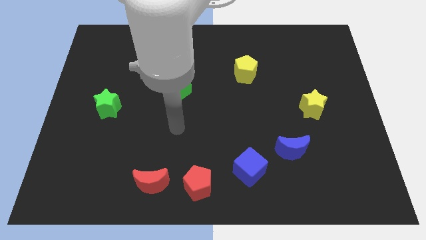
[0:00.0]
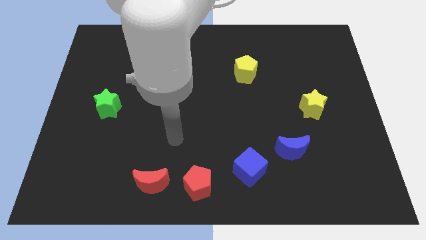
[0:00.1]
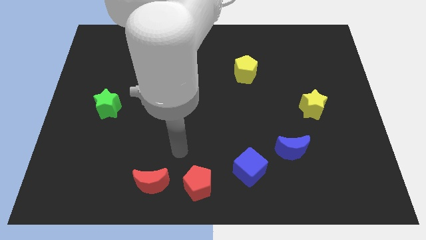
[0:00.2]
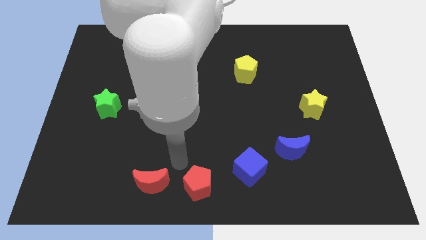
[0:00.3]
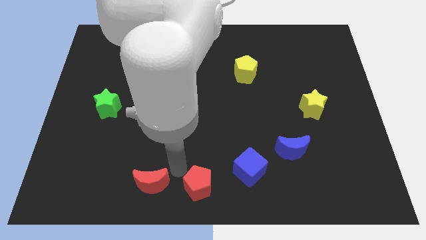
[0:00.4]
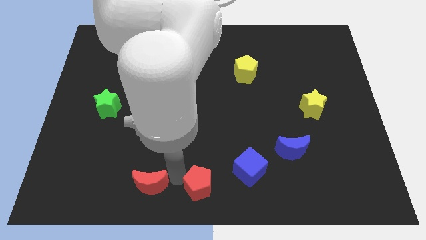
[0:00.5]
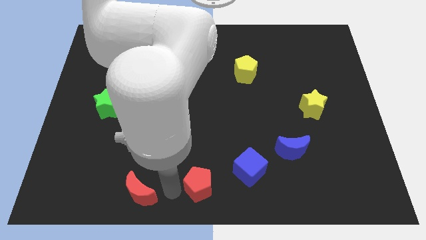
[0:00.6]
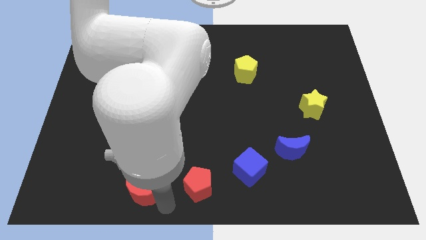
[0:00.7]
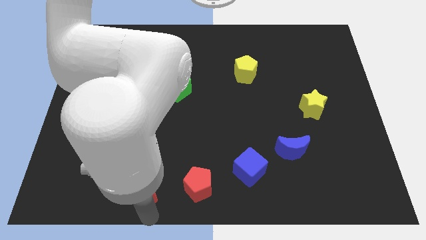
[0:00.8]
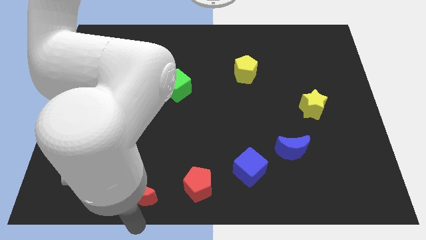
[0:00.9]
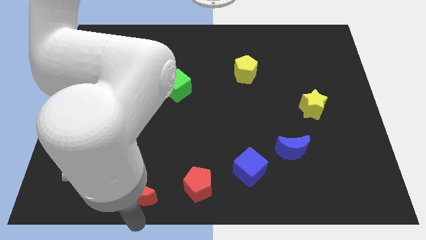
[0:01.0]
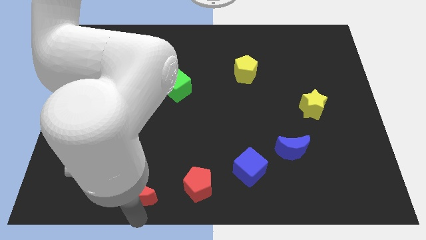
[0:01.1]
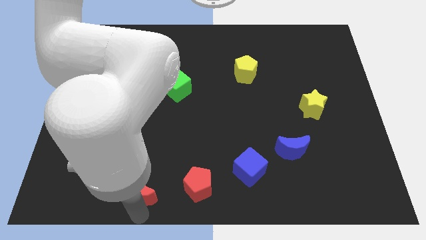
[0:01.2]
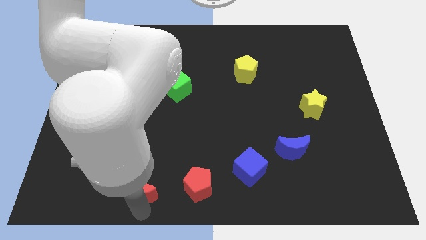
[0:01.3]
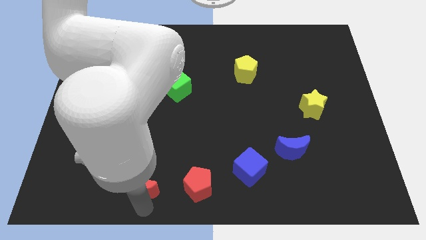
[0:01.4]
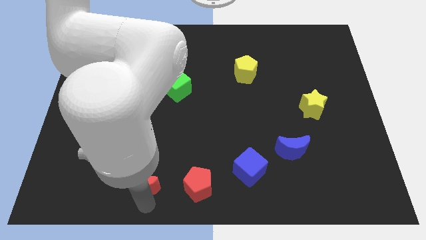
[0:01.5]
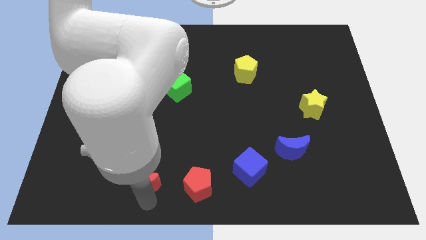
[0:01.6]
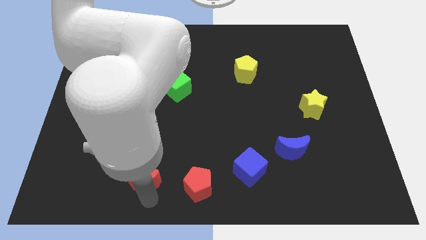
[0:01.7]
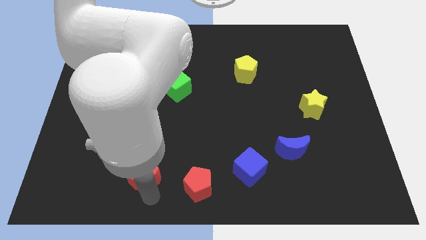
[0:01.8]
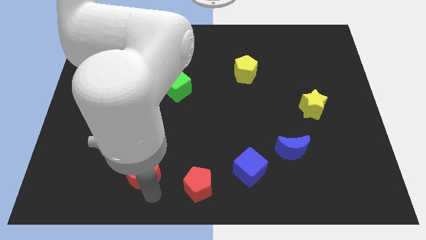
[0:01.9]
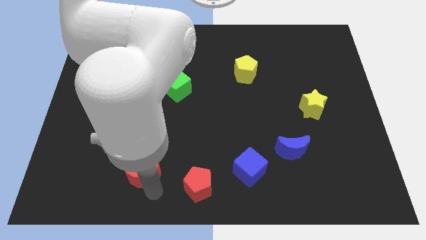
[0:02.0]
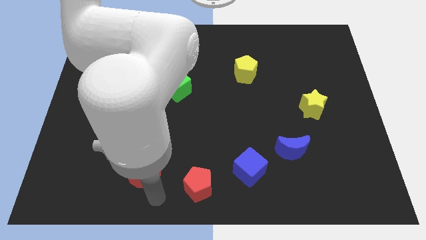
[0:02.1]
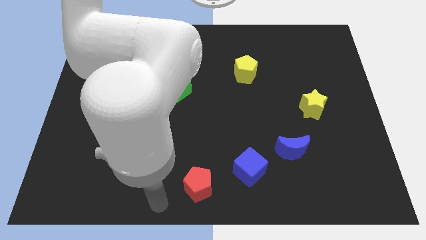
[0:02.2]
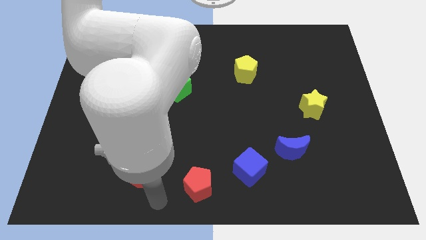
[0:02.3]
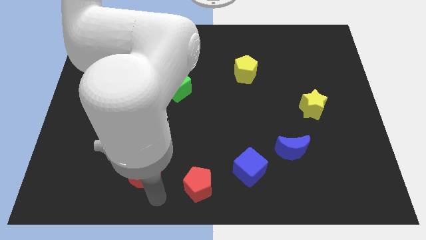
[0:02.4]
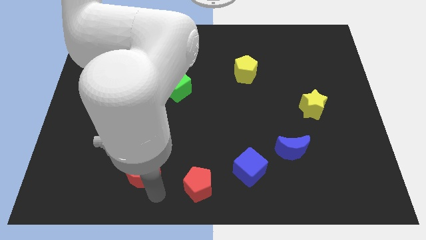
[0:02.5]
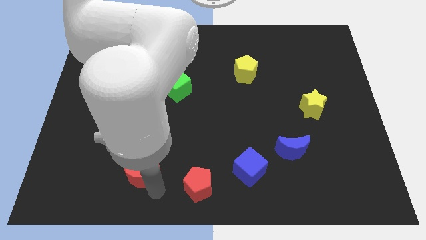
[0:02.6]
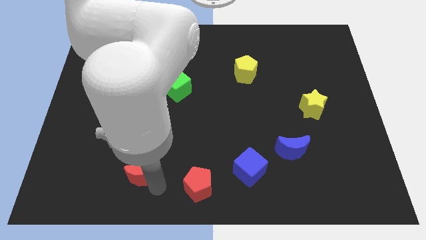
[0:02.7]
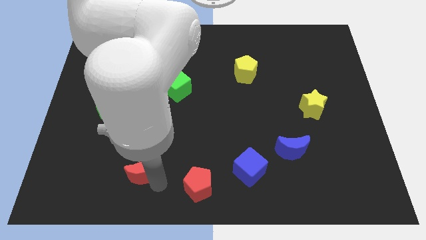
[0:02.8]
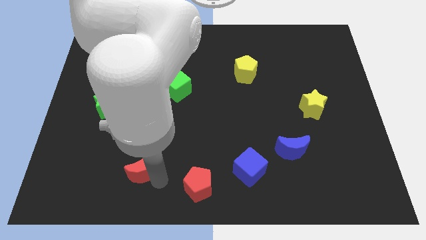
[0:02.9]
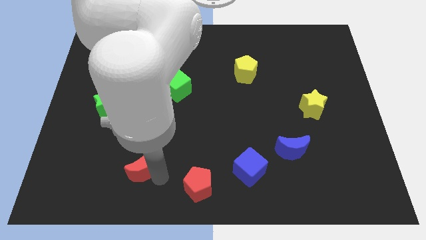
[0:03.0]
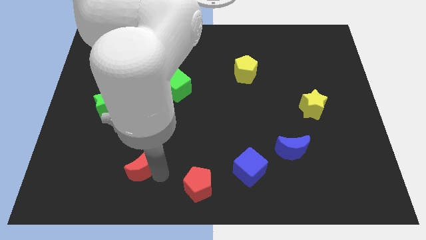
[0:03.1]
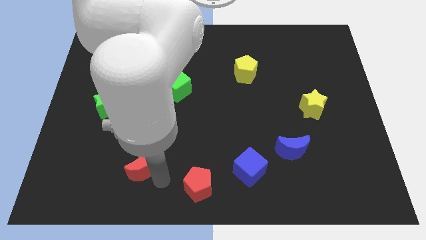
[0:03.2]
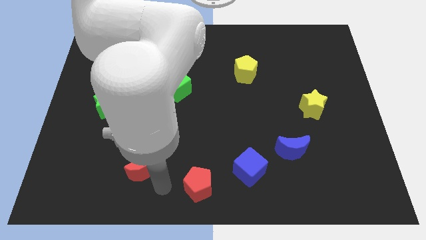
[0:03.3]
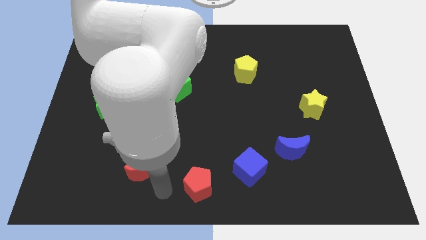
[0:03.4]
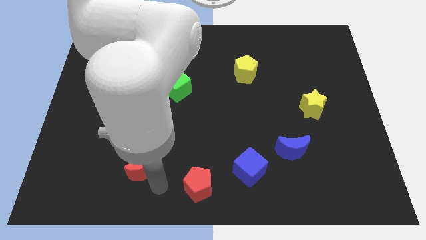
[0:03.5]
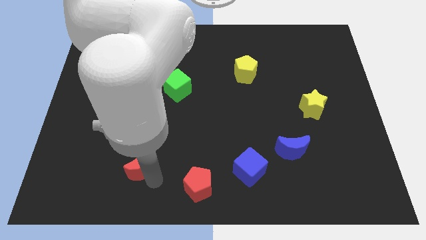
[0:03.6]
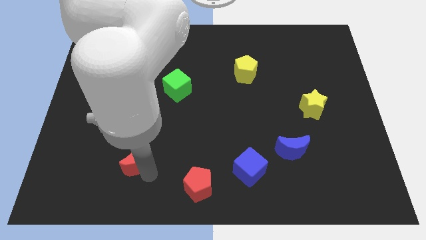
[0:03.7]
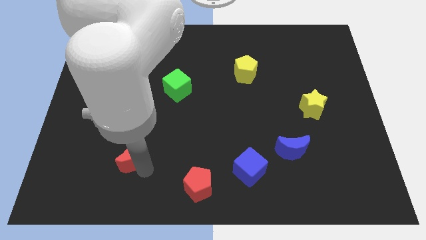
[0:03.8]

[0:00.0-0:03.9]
move the red moon a little bit upwards and left diagonally

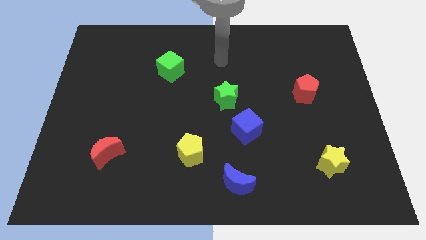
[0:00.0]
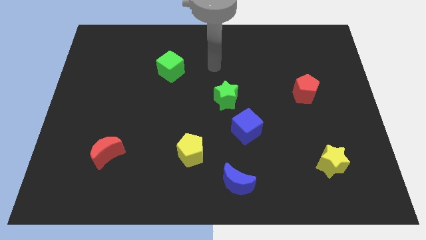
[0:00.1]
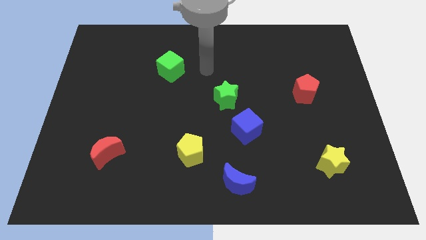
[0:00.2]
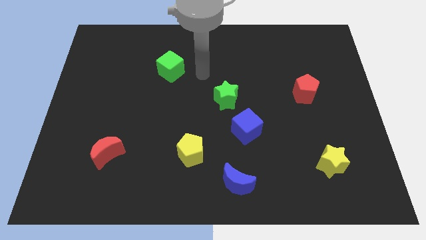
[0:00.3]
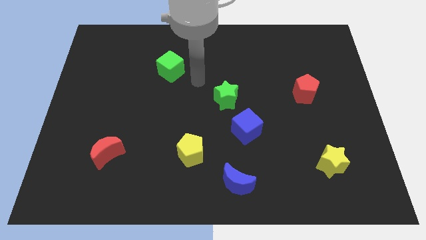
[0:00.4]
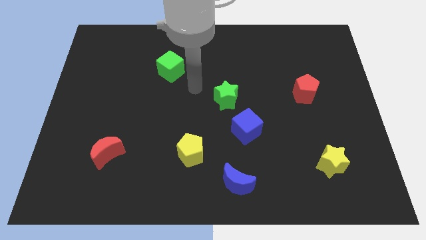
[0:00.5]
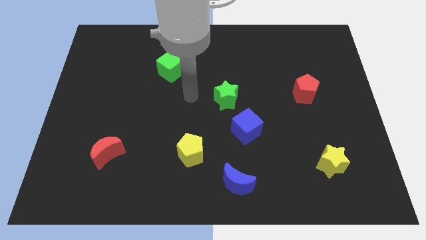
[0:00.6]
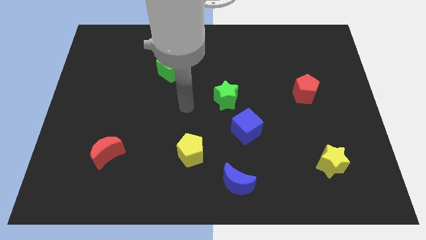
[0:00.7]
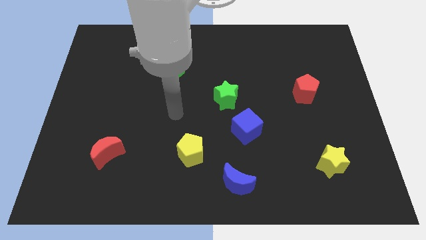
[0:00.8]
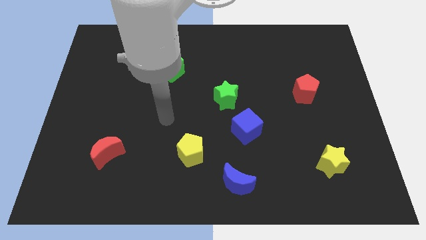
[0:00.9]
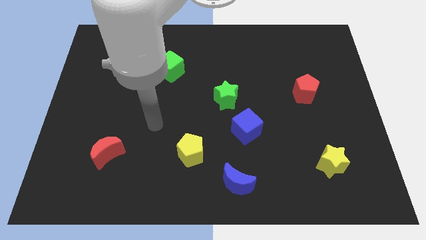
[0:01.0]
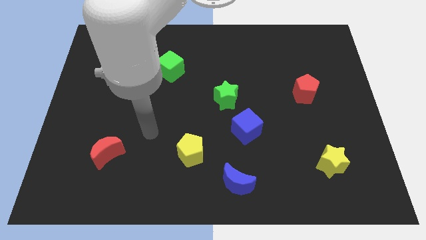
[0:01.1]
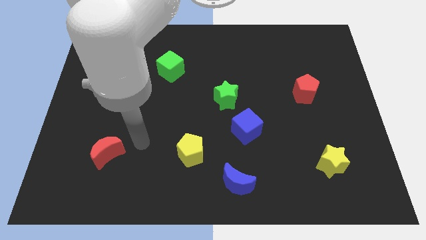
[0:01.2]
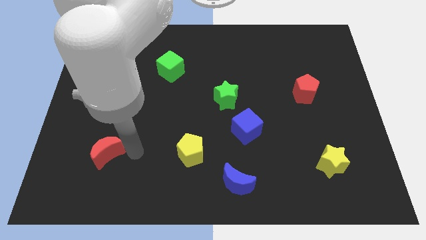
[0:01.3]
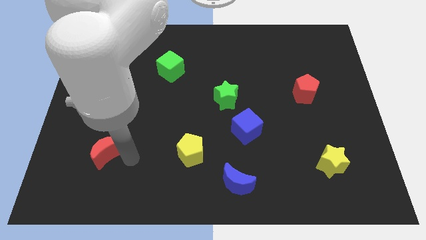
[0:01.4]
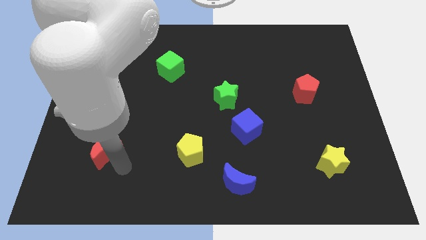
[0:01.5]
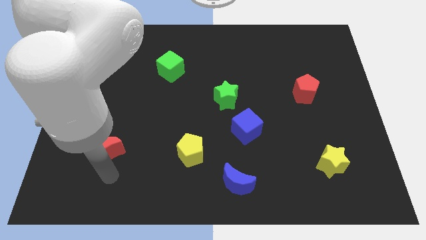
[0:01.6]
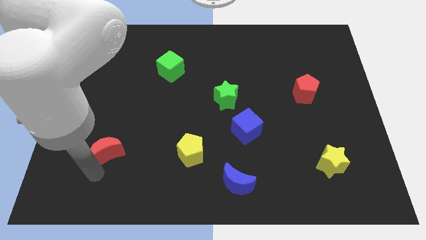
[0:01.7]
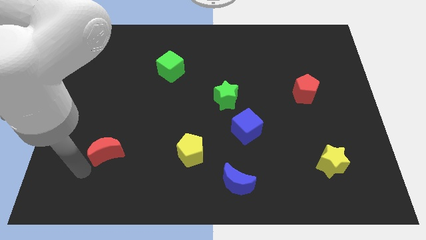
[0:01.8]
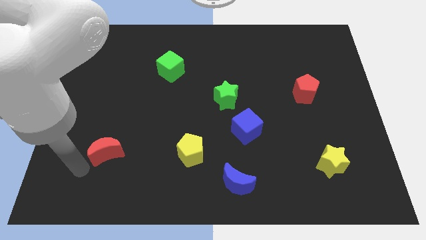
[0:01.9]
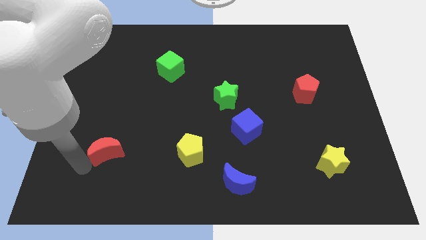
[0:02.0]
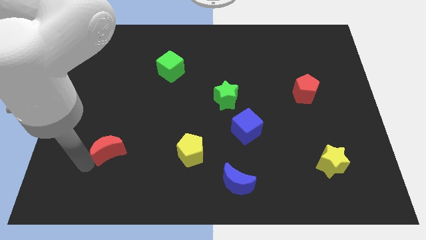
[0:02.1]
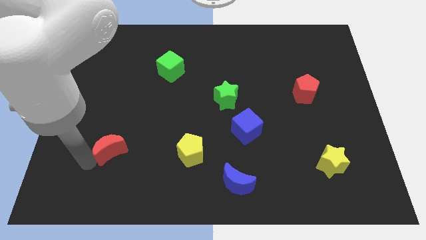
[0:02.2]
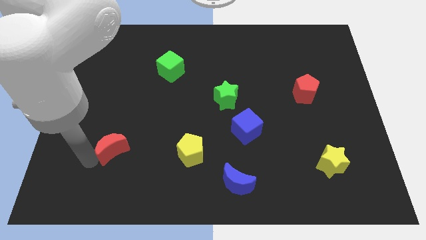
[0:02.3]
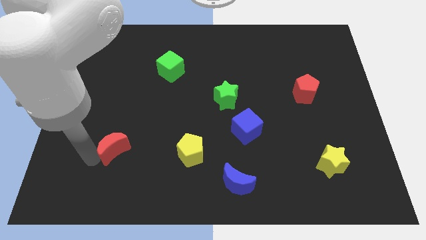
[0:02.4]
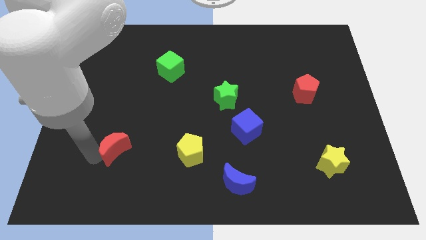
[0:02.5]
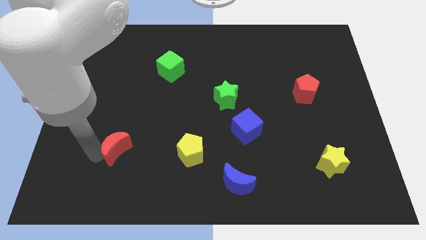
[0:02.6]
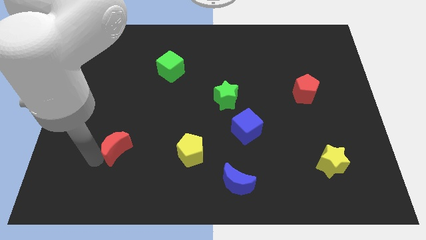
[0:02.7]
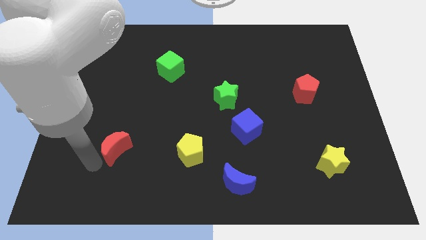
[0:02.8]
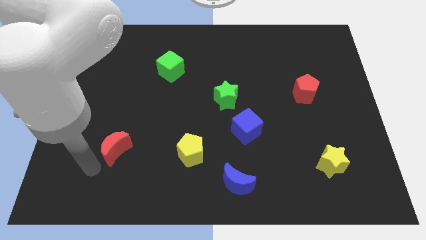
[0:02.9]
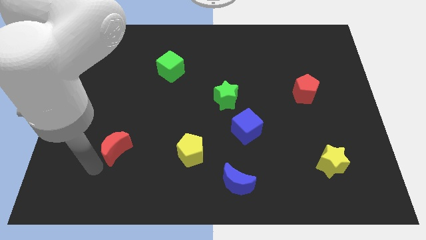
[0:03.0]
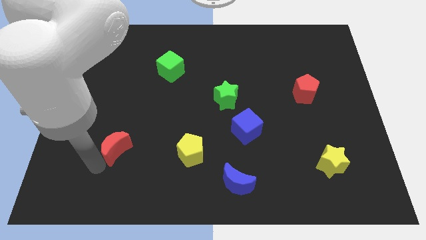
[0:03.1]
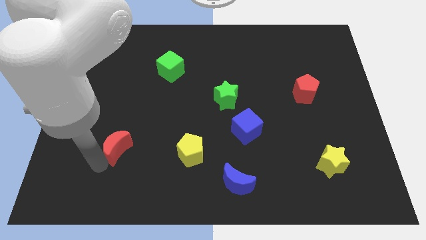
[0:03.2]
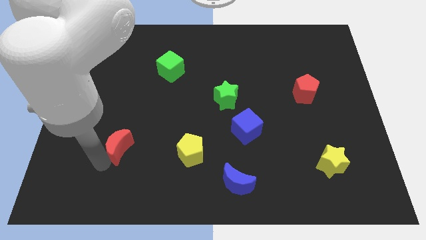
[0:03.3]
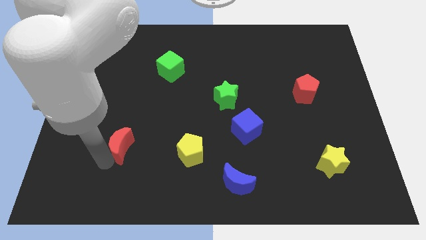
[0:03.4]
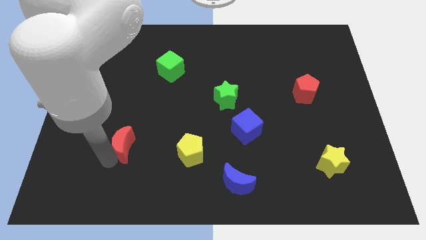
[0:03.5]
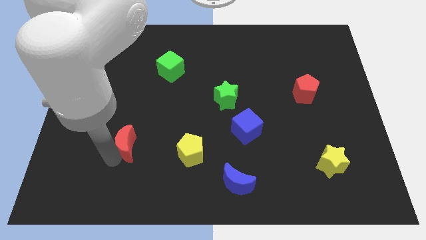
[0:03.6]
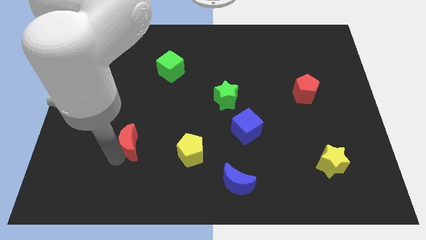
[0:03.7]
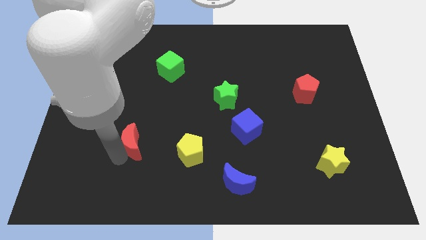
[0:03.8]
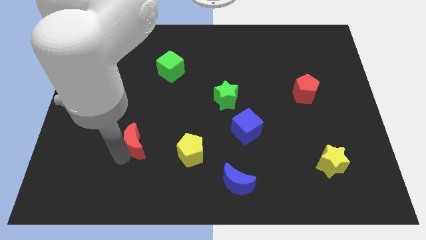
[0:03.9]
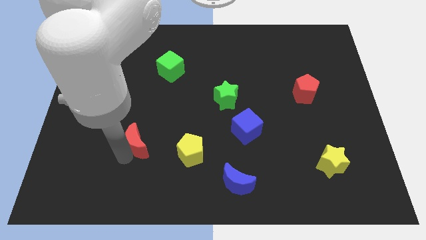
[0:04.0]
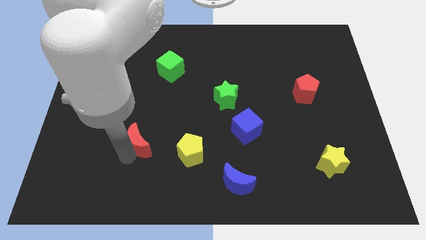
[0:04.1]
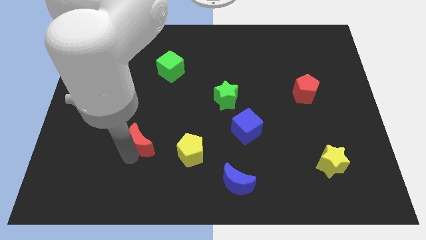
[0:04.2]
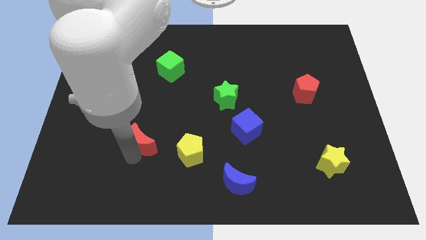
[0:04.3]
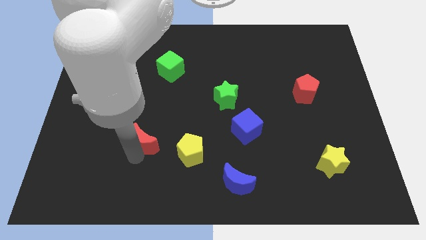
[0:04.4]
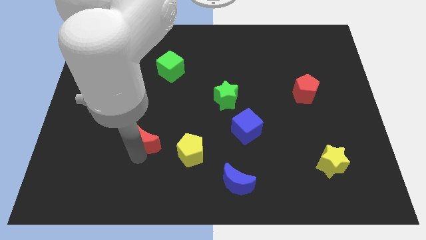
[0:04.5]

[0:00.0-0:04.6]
slightly push the red moon up and right
